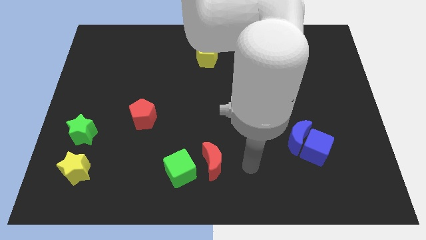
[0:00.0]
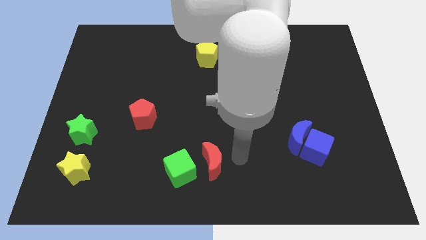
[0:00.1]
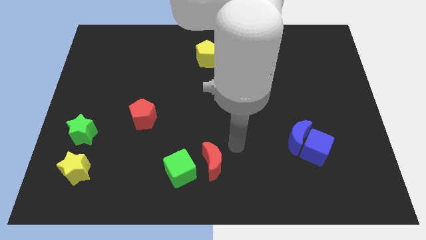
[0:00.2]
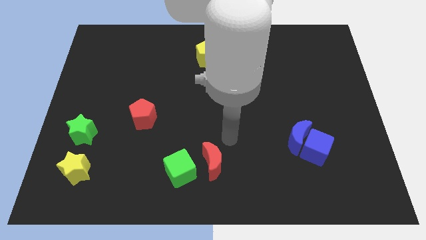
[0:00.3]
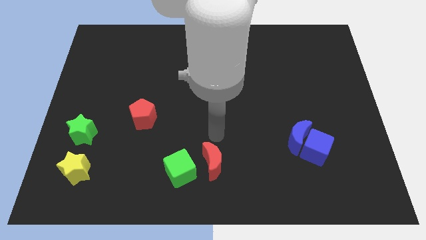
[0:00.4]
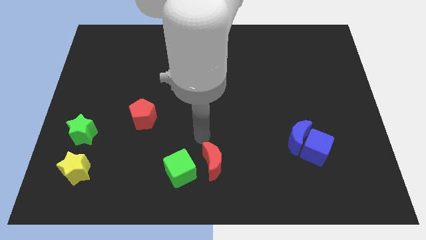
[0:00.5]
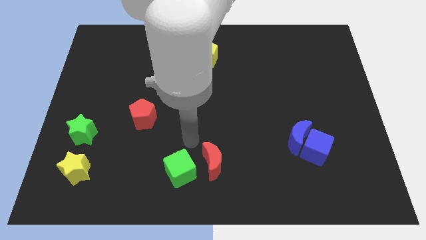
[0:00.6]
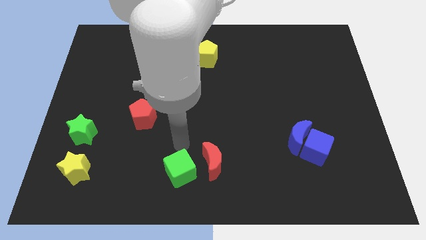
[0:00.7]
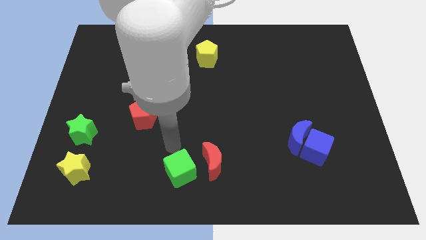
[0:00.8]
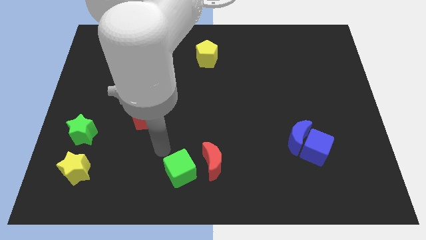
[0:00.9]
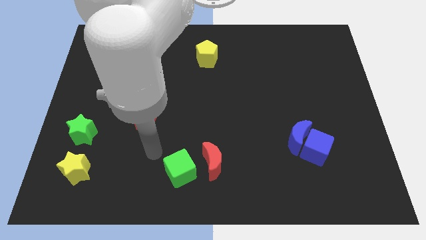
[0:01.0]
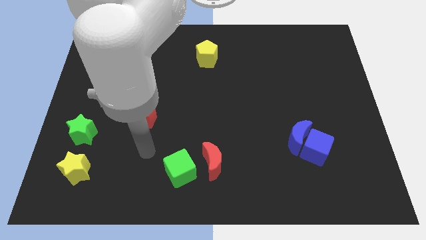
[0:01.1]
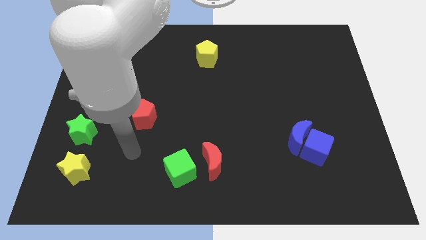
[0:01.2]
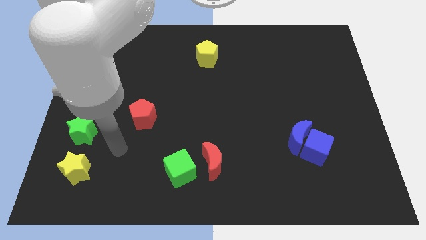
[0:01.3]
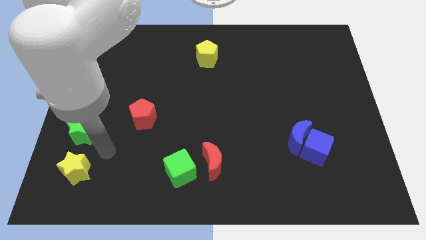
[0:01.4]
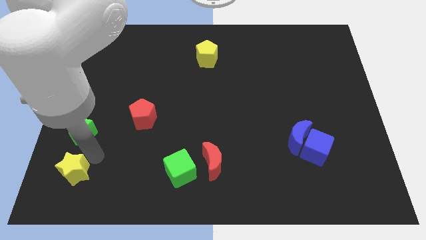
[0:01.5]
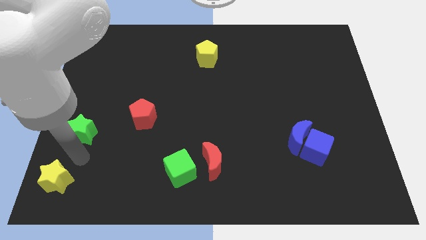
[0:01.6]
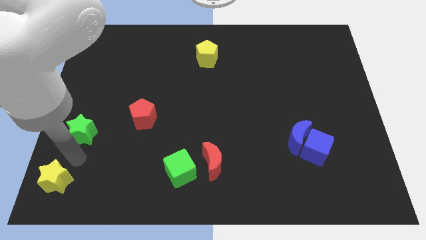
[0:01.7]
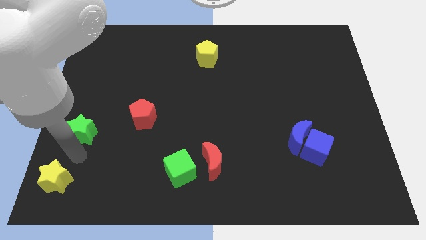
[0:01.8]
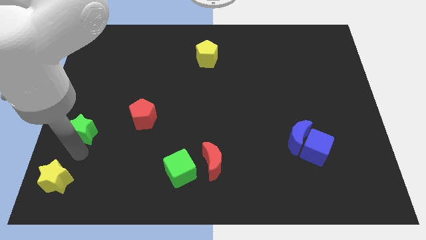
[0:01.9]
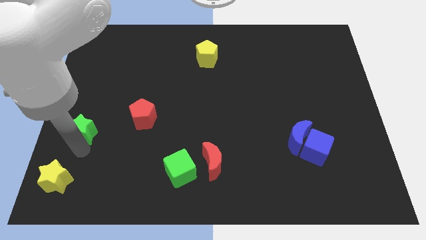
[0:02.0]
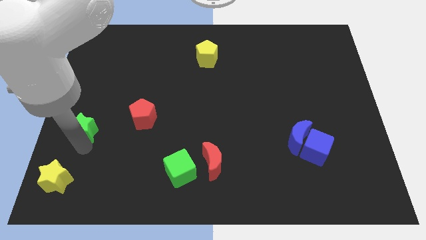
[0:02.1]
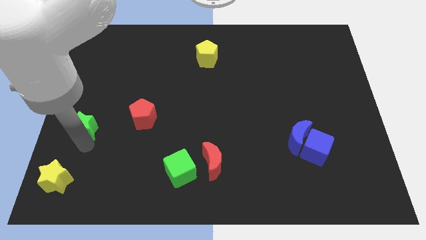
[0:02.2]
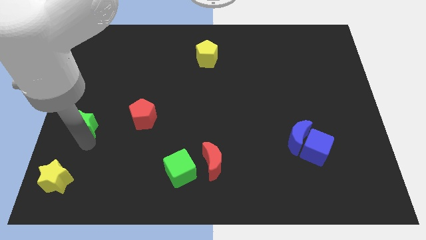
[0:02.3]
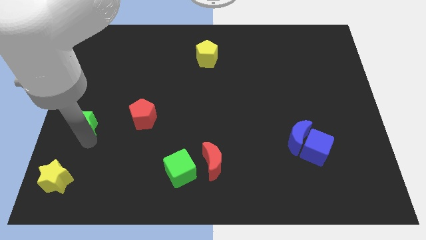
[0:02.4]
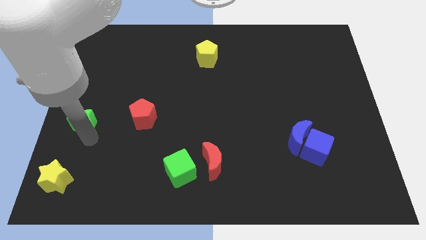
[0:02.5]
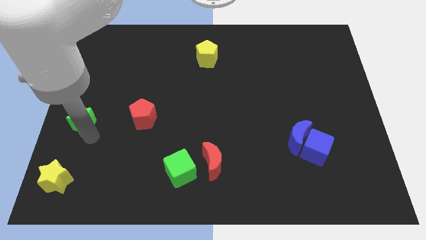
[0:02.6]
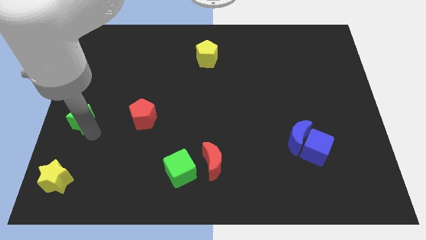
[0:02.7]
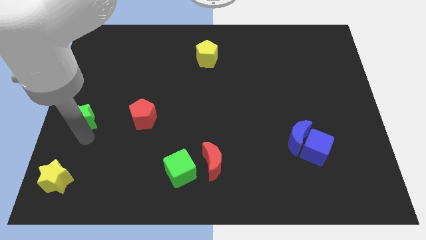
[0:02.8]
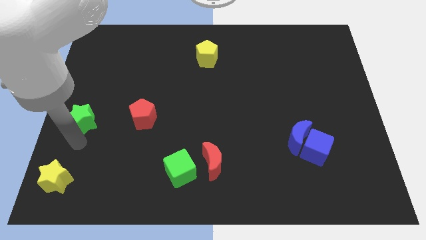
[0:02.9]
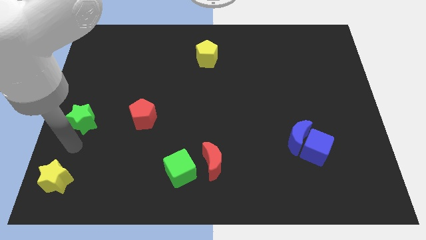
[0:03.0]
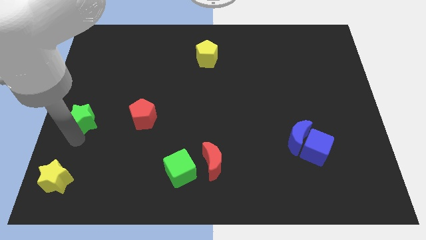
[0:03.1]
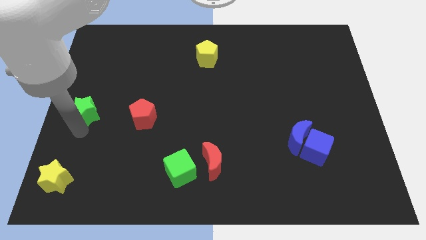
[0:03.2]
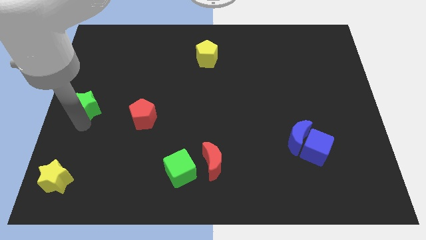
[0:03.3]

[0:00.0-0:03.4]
slightly slide the green star upwards

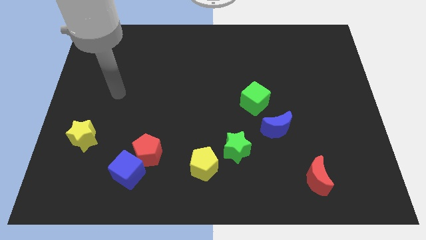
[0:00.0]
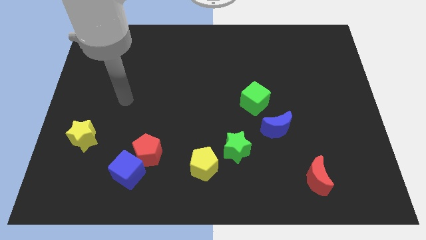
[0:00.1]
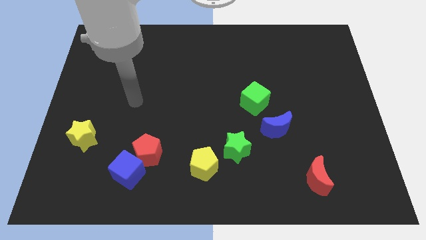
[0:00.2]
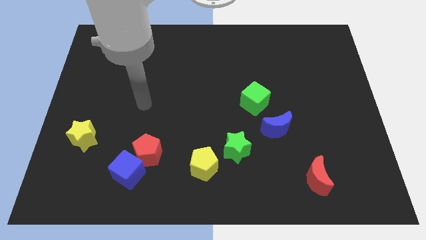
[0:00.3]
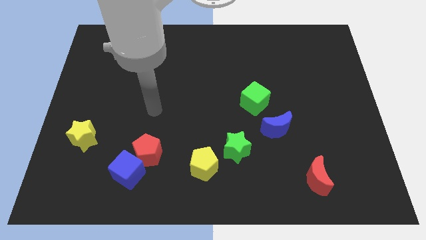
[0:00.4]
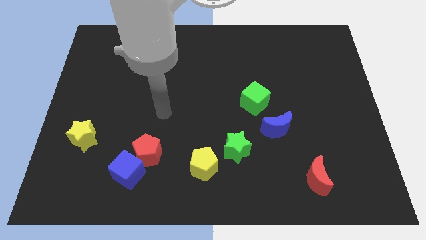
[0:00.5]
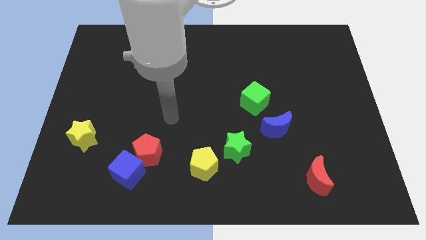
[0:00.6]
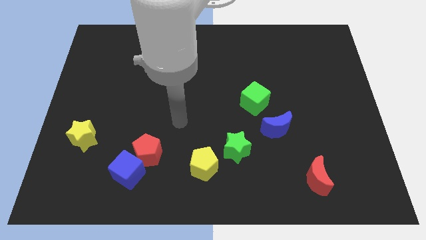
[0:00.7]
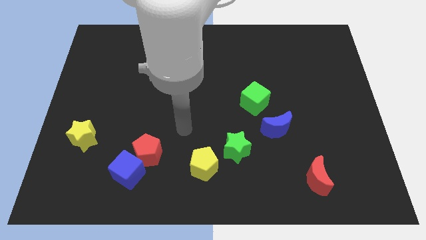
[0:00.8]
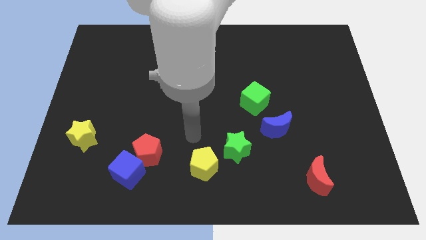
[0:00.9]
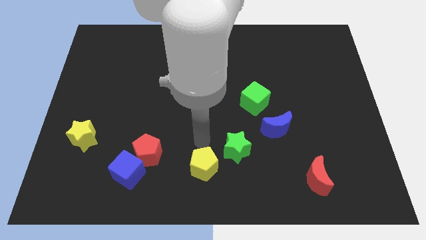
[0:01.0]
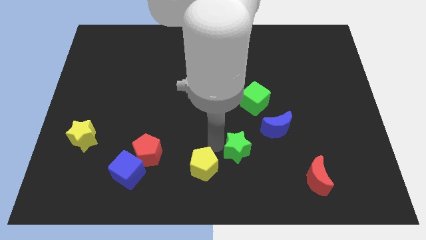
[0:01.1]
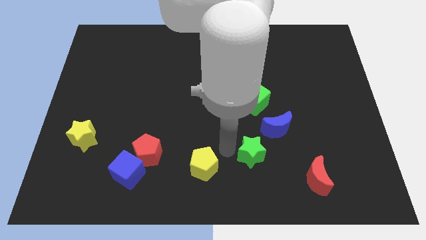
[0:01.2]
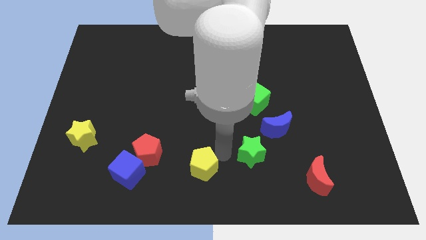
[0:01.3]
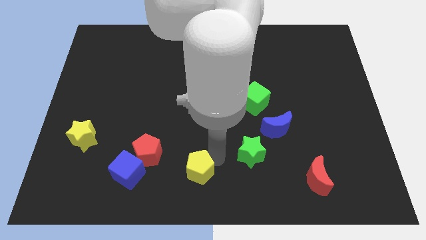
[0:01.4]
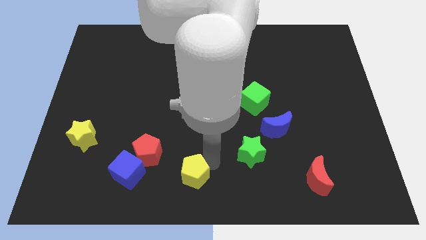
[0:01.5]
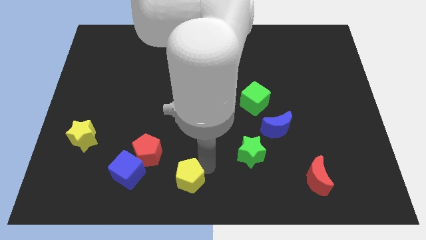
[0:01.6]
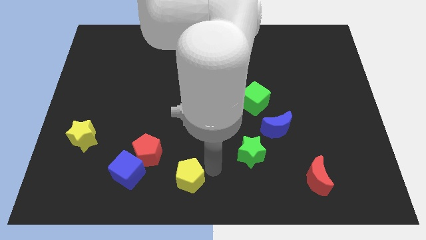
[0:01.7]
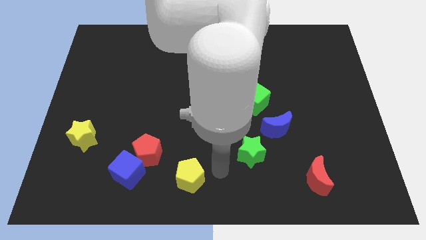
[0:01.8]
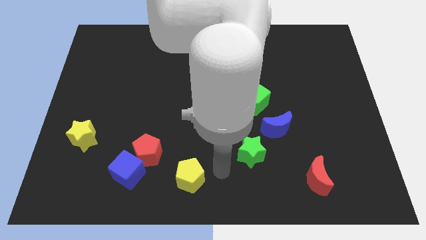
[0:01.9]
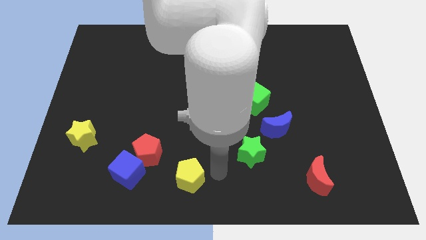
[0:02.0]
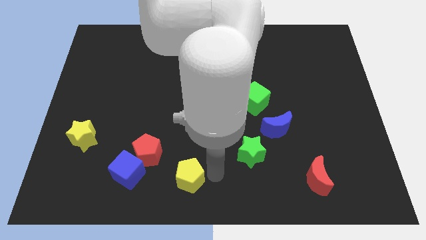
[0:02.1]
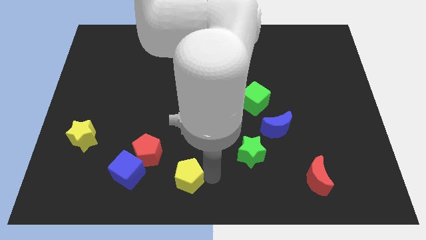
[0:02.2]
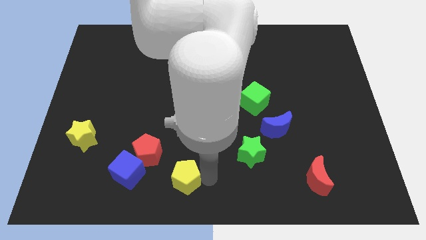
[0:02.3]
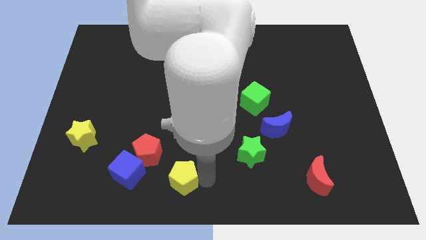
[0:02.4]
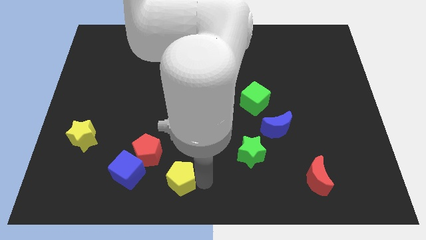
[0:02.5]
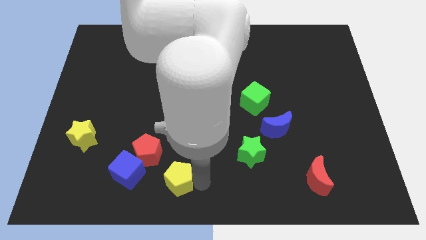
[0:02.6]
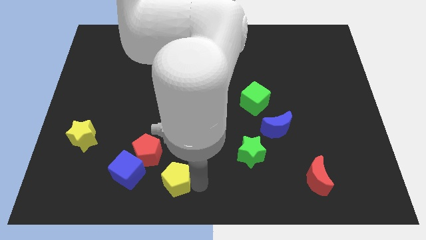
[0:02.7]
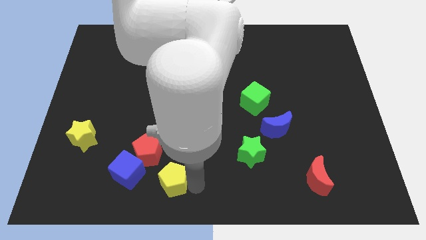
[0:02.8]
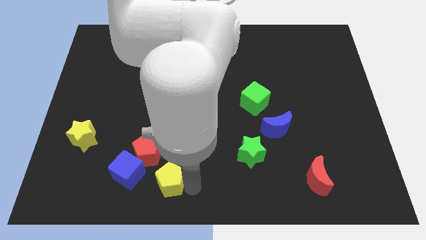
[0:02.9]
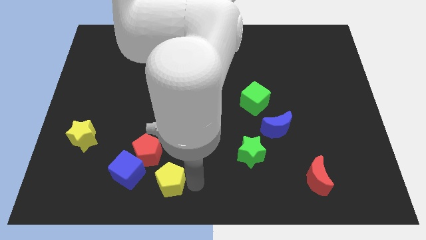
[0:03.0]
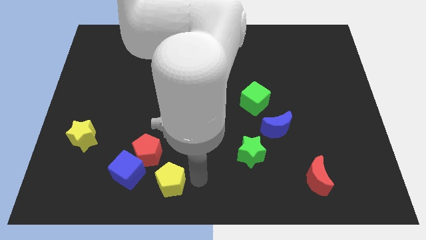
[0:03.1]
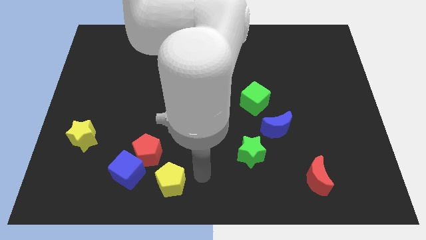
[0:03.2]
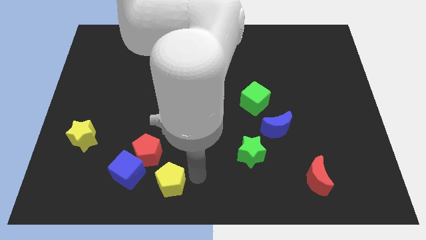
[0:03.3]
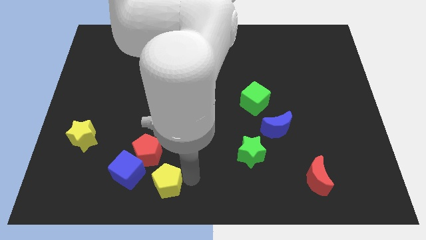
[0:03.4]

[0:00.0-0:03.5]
move the yellow pentagon left a little bit

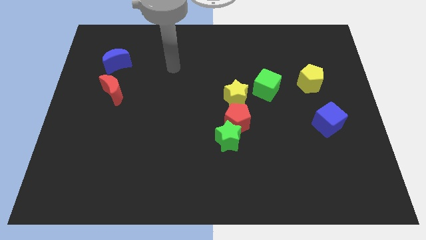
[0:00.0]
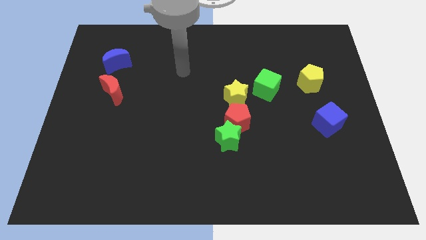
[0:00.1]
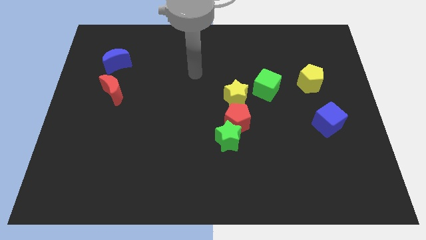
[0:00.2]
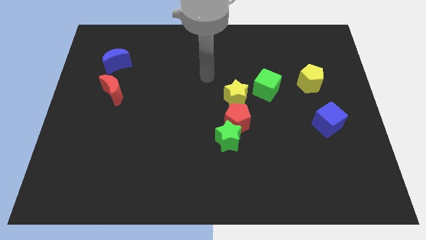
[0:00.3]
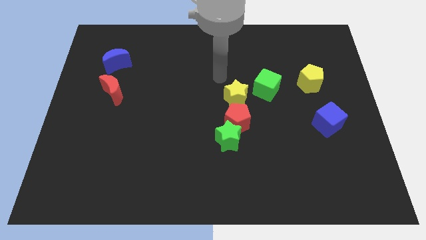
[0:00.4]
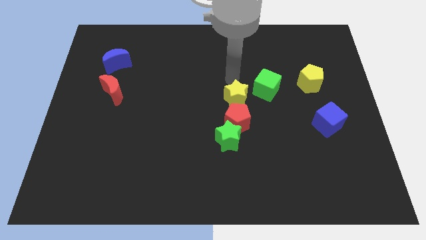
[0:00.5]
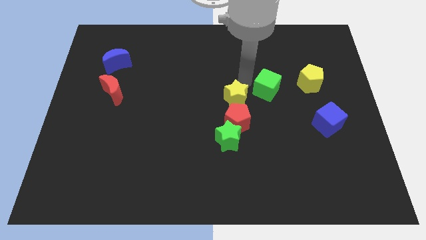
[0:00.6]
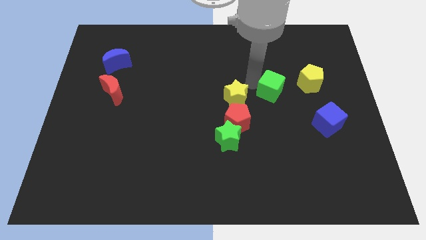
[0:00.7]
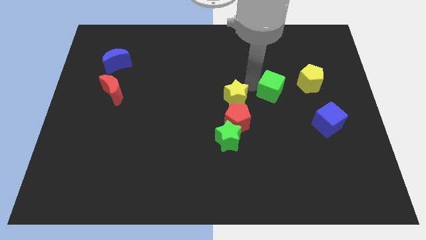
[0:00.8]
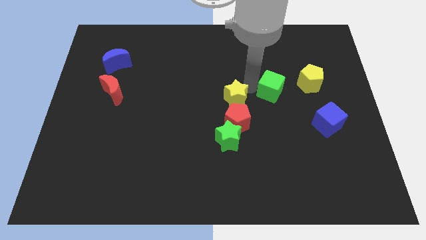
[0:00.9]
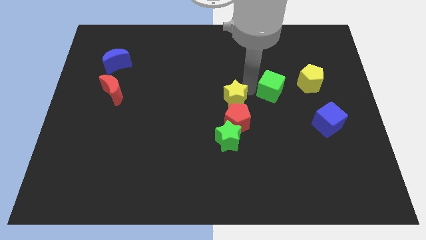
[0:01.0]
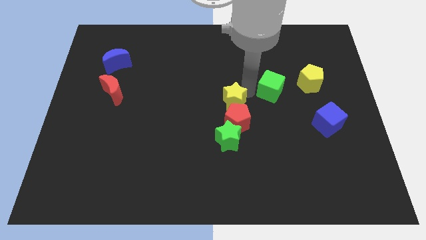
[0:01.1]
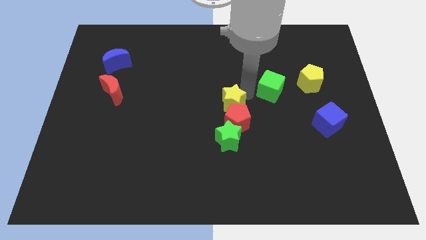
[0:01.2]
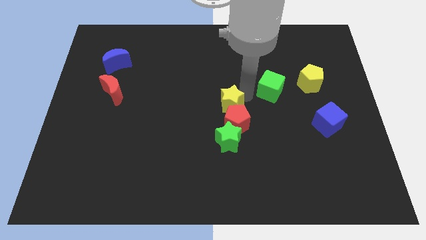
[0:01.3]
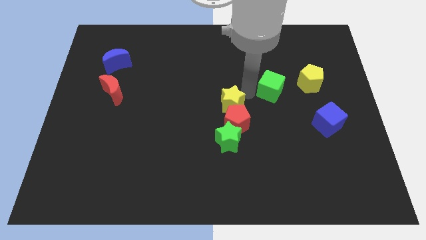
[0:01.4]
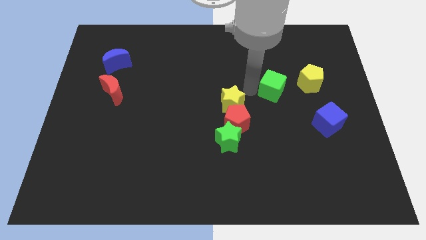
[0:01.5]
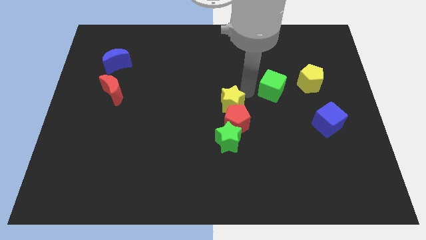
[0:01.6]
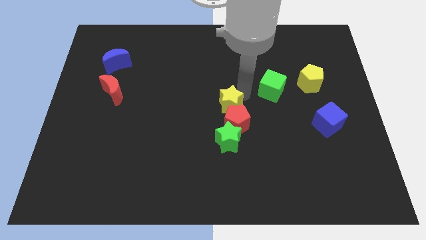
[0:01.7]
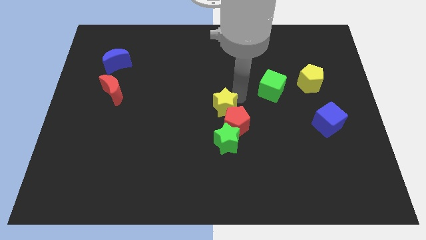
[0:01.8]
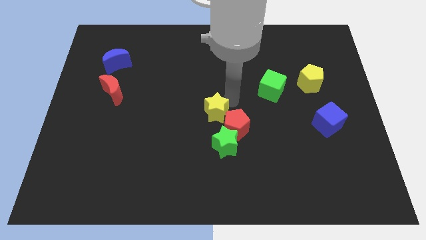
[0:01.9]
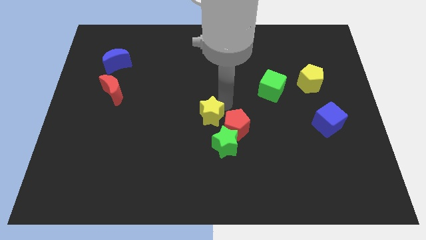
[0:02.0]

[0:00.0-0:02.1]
move the yellow star slightly diagonally downwards and left

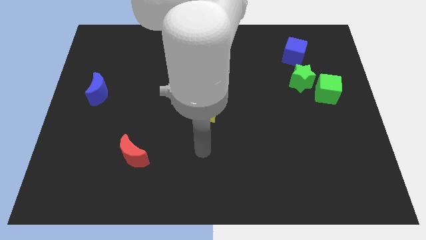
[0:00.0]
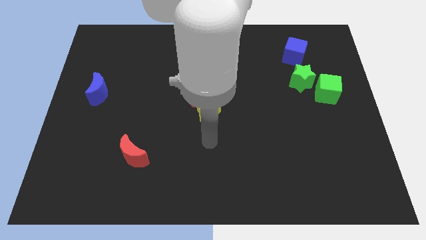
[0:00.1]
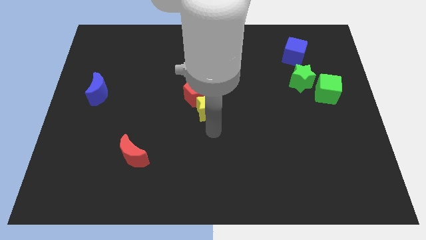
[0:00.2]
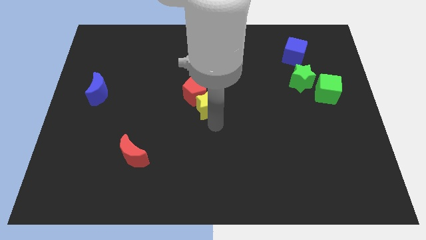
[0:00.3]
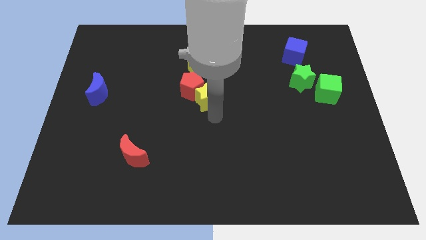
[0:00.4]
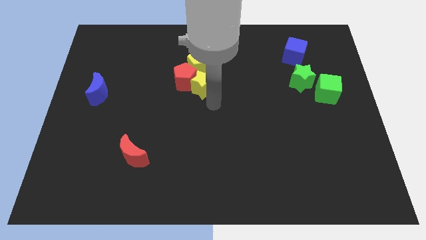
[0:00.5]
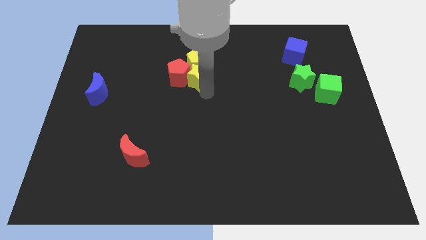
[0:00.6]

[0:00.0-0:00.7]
push the red pentagon up and then left a bit
